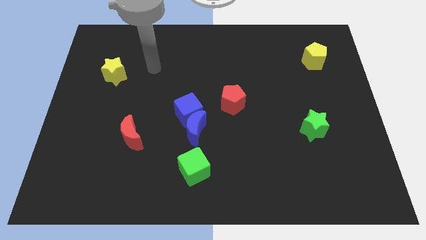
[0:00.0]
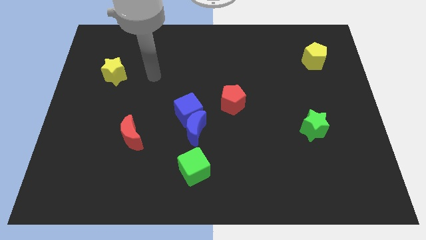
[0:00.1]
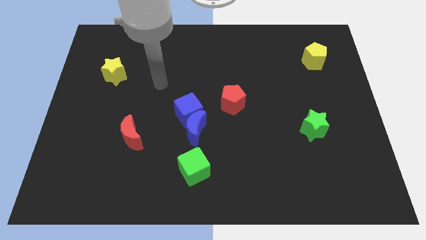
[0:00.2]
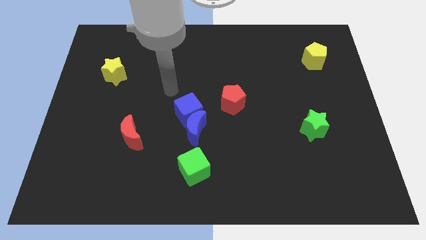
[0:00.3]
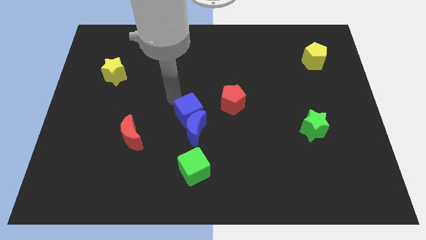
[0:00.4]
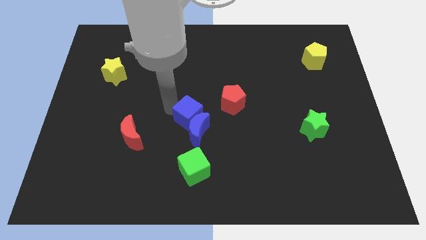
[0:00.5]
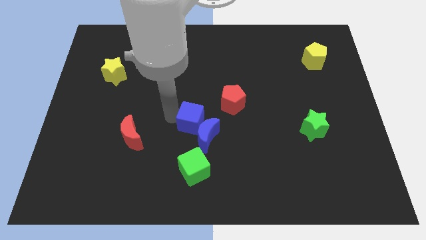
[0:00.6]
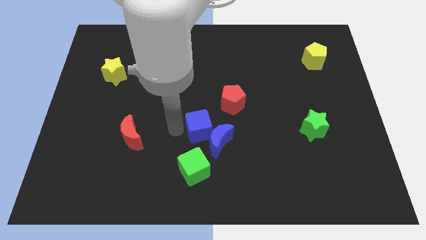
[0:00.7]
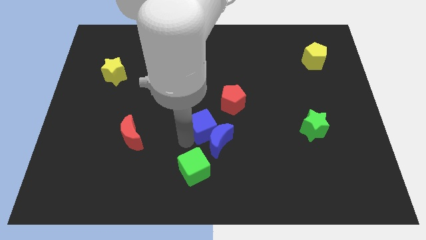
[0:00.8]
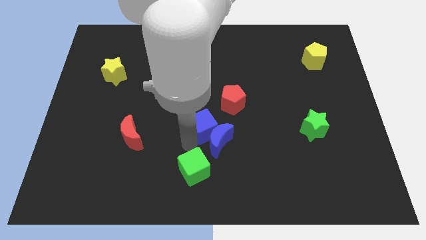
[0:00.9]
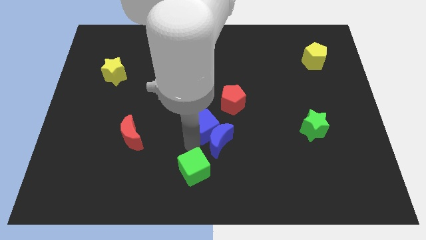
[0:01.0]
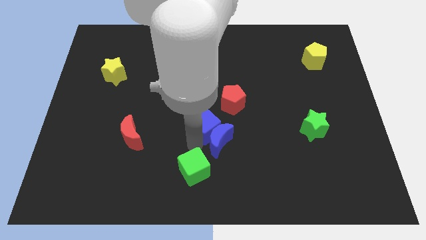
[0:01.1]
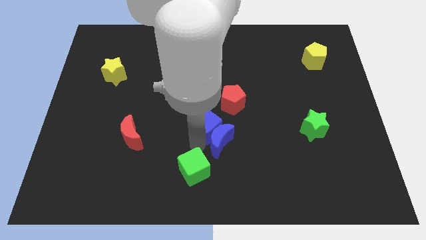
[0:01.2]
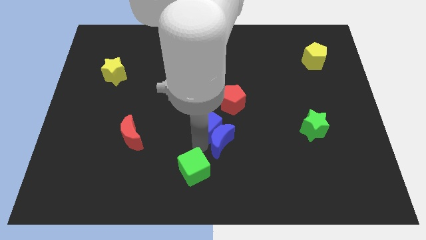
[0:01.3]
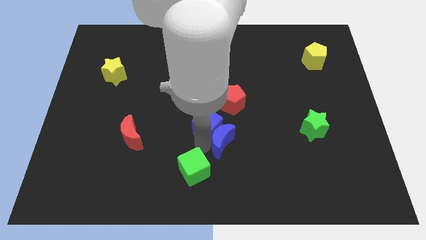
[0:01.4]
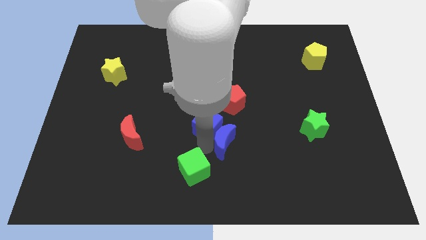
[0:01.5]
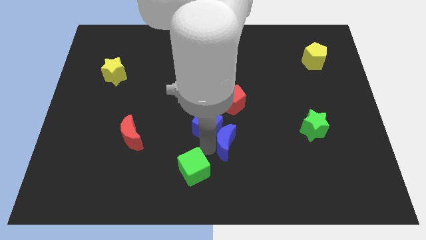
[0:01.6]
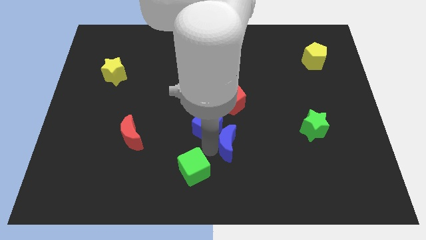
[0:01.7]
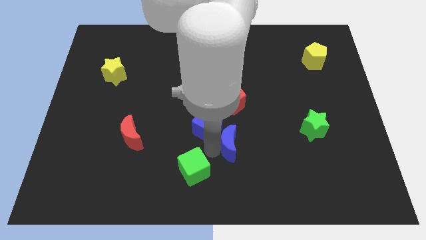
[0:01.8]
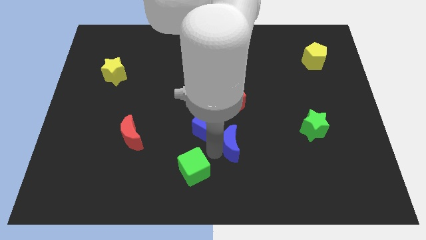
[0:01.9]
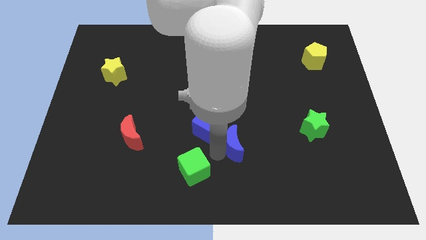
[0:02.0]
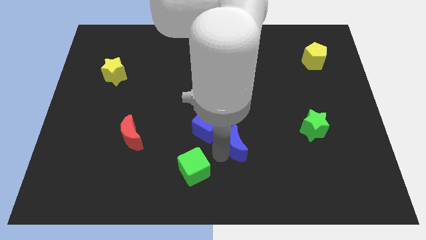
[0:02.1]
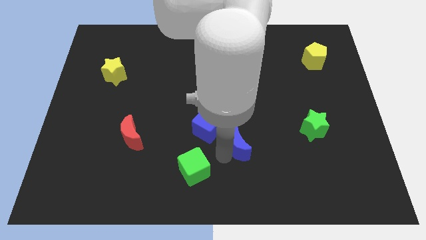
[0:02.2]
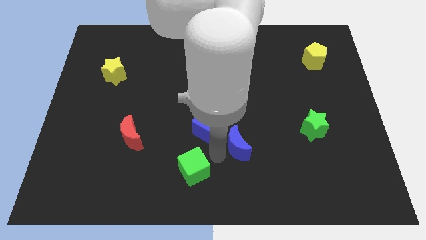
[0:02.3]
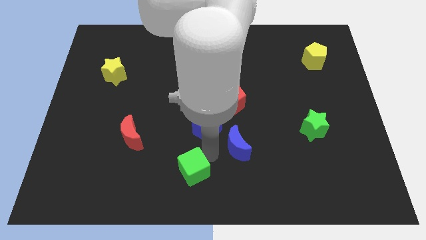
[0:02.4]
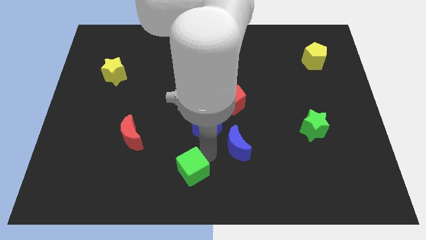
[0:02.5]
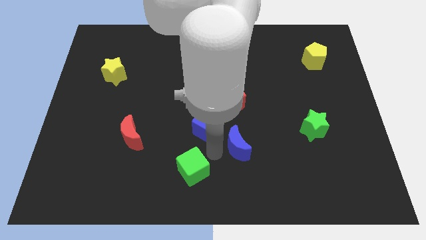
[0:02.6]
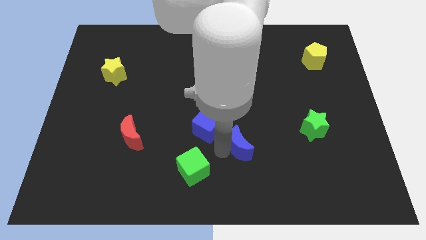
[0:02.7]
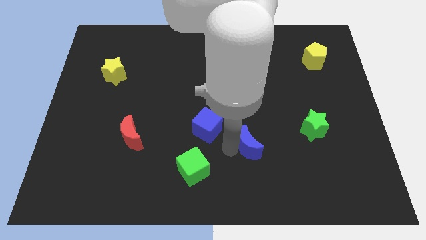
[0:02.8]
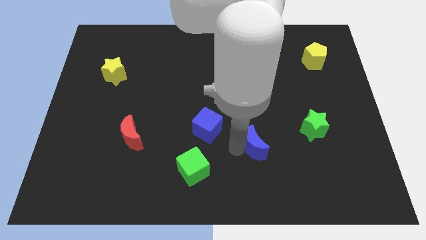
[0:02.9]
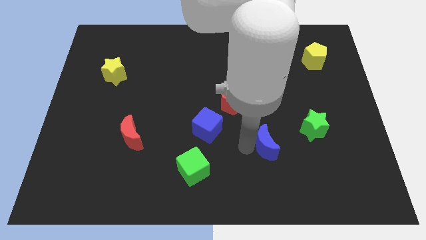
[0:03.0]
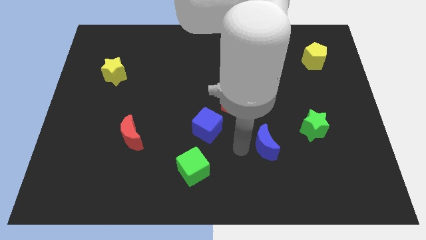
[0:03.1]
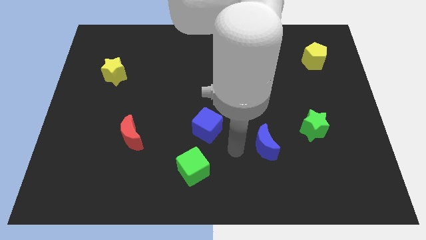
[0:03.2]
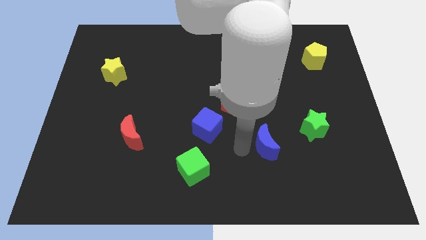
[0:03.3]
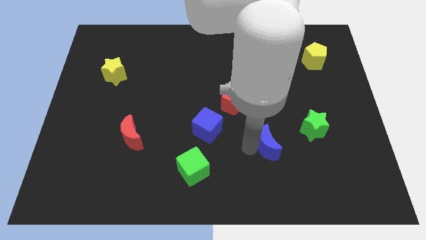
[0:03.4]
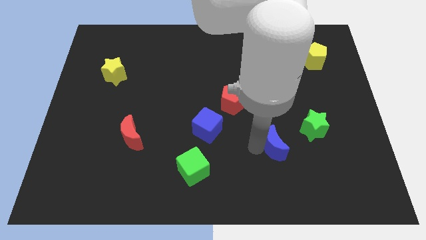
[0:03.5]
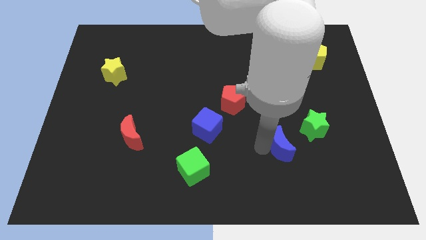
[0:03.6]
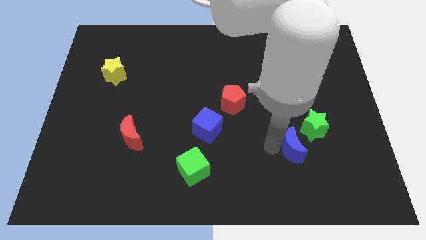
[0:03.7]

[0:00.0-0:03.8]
push the blue moon right

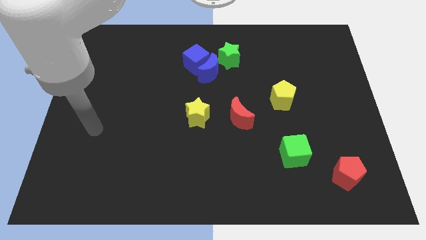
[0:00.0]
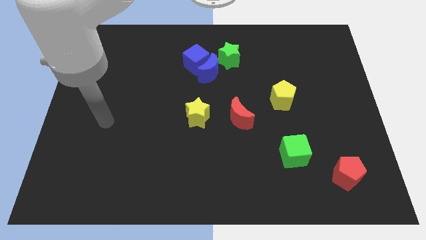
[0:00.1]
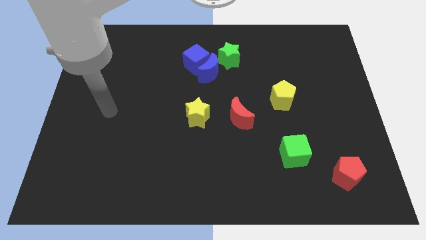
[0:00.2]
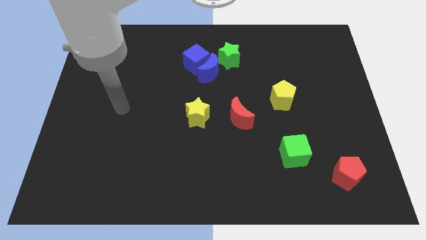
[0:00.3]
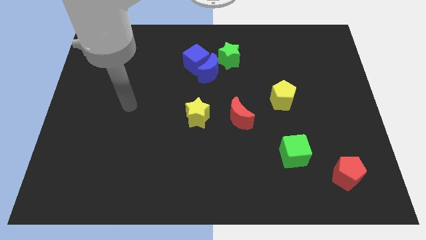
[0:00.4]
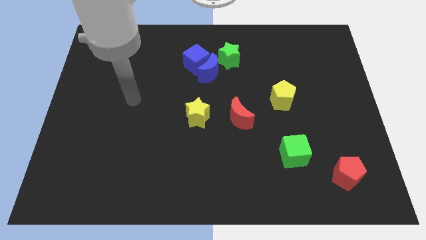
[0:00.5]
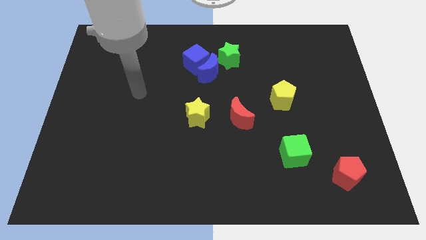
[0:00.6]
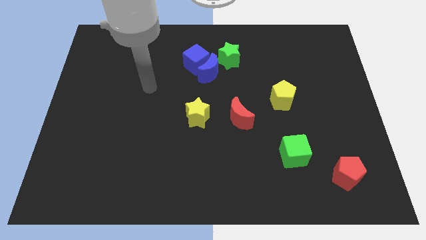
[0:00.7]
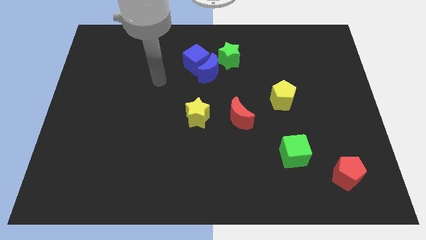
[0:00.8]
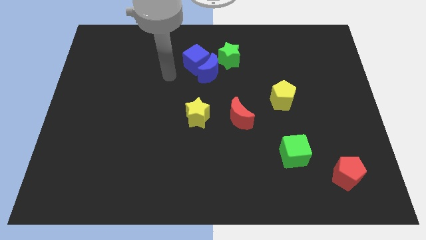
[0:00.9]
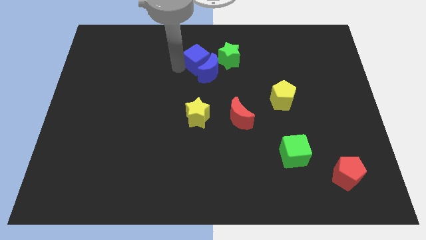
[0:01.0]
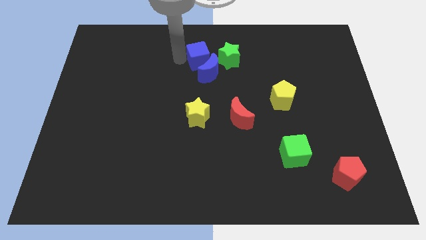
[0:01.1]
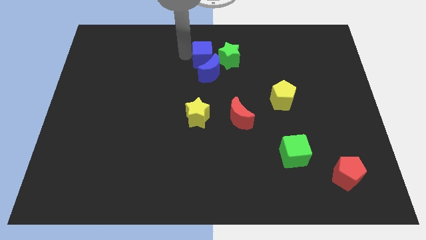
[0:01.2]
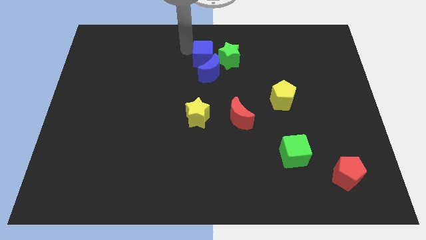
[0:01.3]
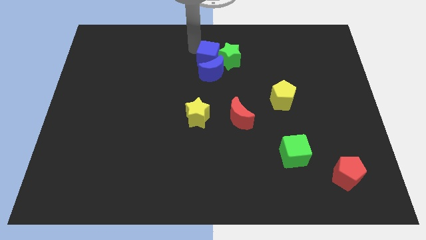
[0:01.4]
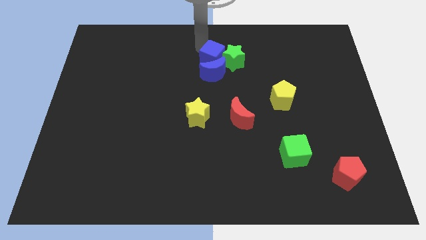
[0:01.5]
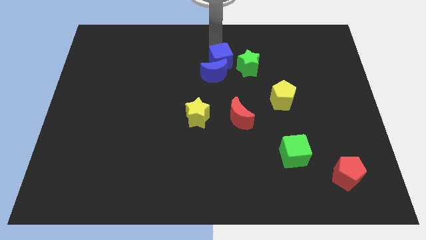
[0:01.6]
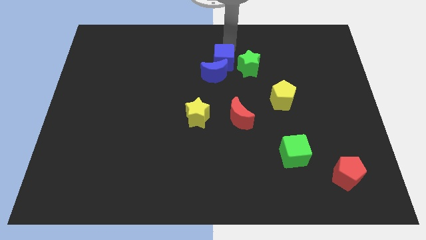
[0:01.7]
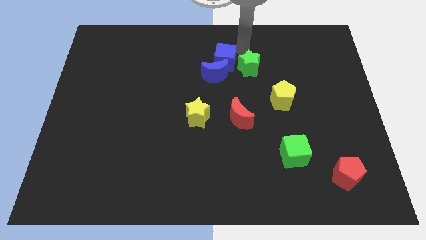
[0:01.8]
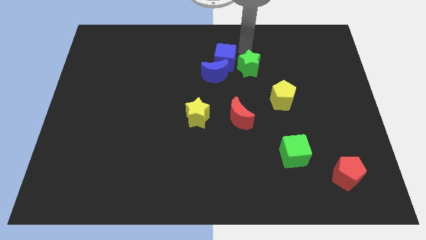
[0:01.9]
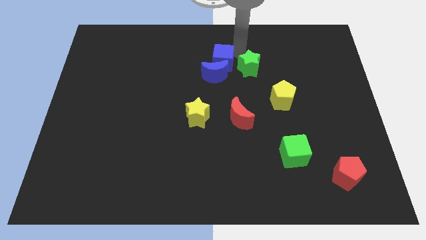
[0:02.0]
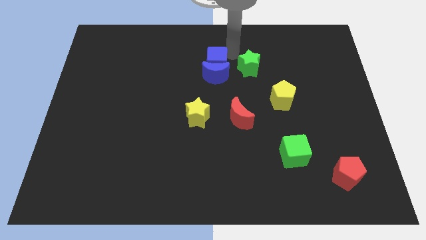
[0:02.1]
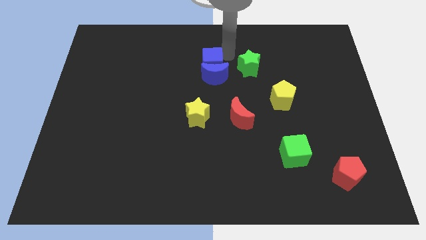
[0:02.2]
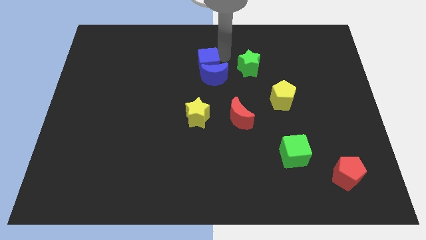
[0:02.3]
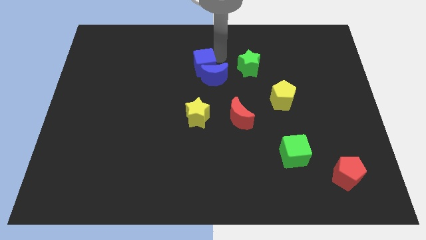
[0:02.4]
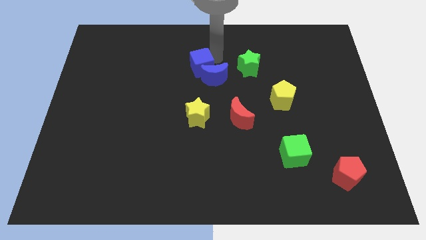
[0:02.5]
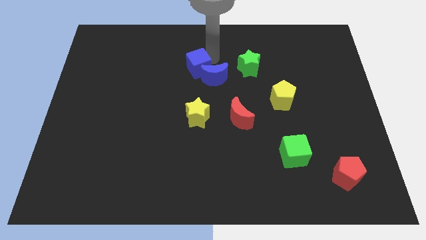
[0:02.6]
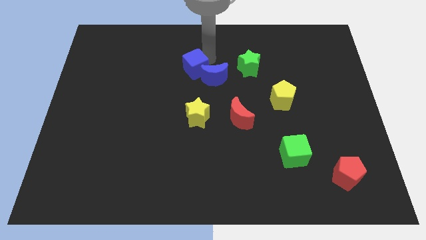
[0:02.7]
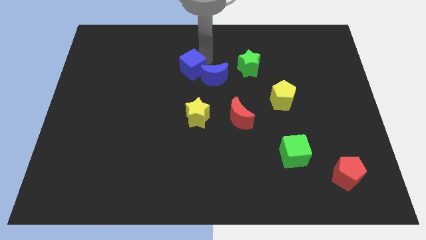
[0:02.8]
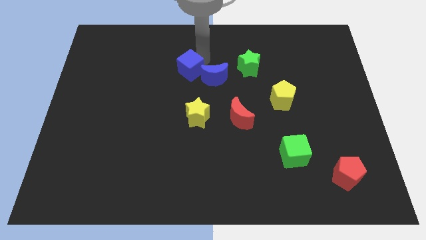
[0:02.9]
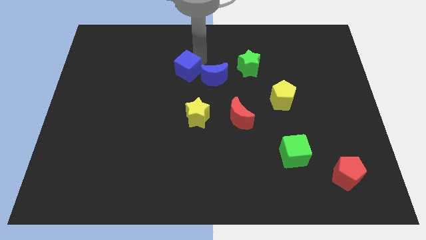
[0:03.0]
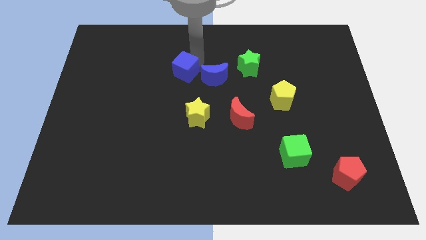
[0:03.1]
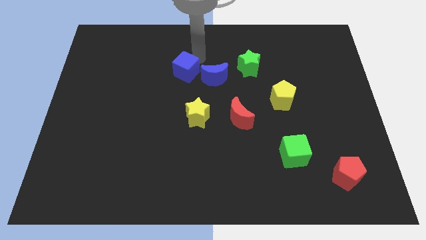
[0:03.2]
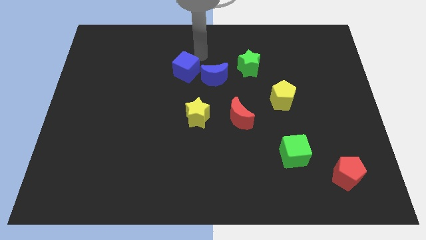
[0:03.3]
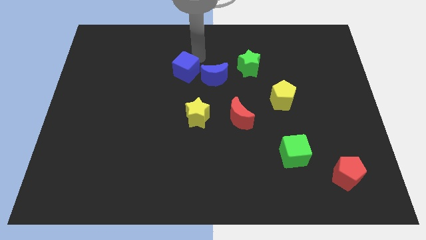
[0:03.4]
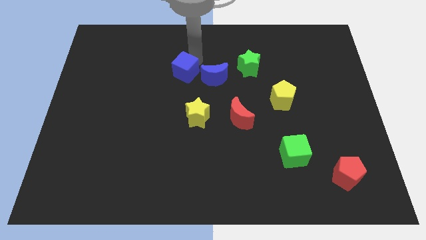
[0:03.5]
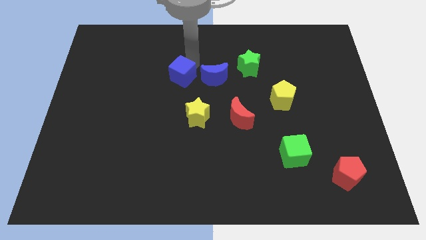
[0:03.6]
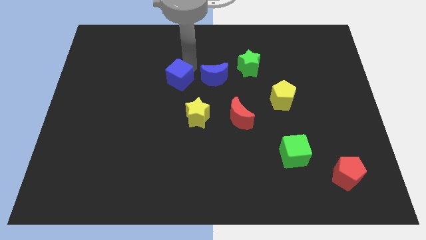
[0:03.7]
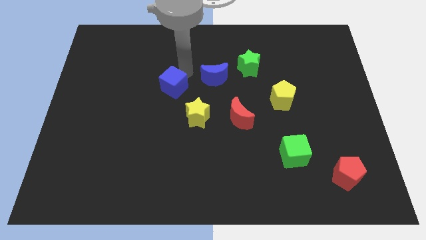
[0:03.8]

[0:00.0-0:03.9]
push the blue cube somewhat downwards and then to the left

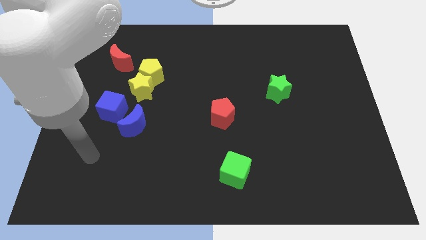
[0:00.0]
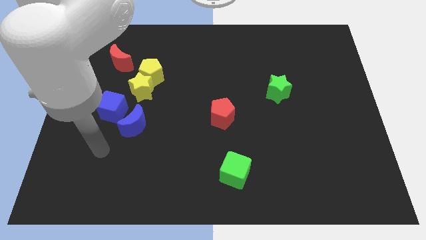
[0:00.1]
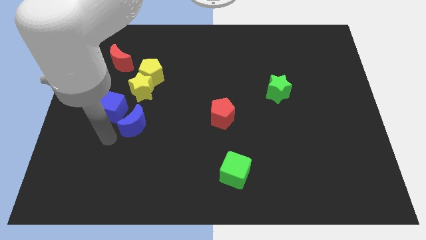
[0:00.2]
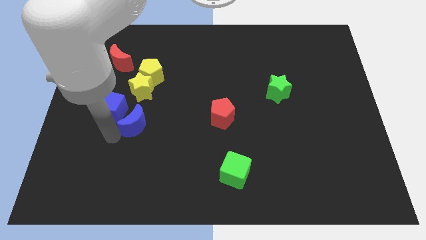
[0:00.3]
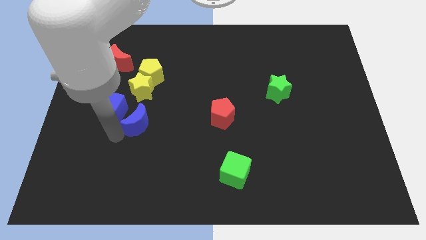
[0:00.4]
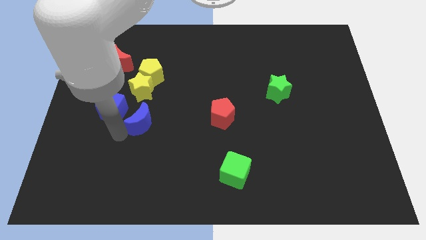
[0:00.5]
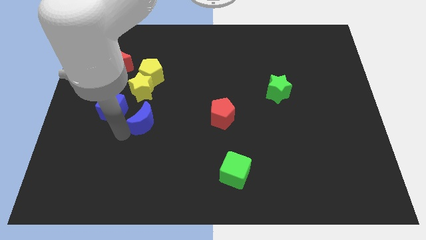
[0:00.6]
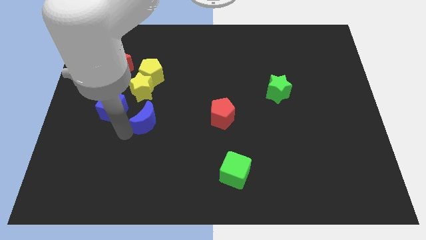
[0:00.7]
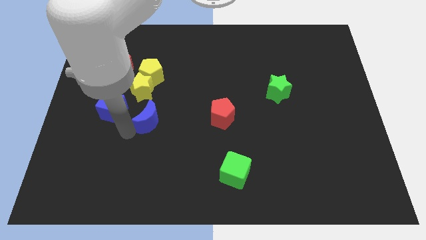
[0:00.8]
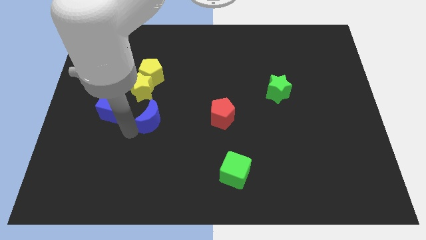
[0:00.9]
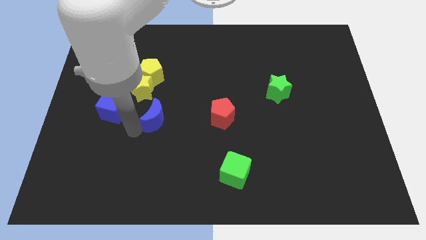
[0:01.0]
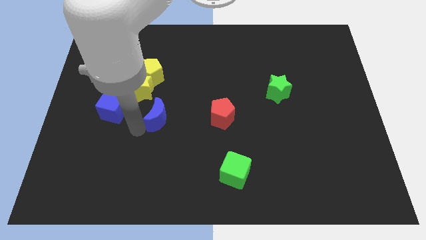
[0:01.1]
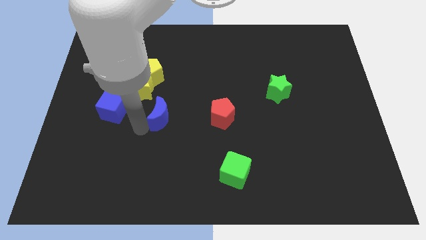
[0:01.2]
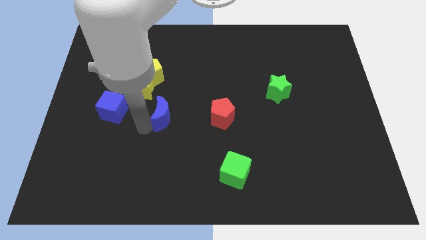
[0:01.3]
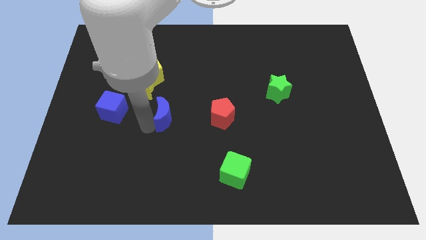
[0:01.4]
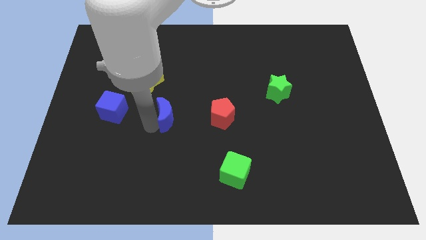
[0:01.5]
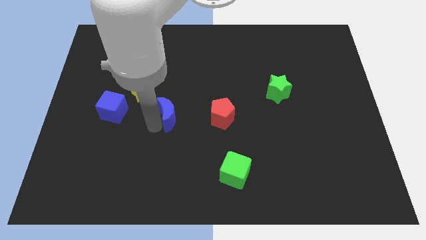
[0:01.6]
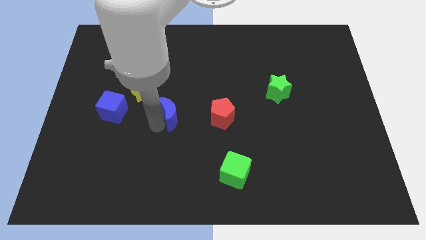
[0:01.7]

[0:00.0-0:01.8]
slide the blue moon a little bit upwards and then right
